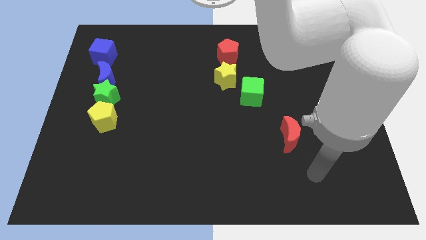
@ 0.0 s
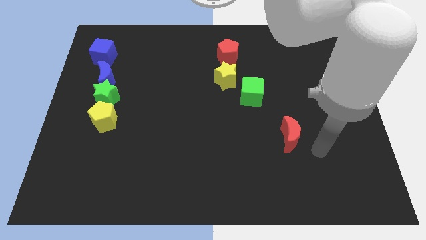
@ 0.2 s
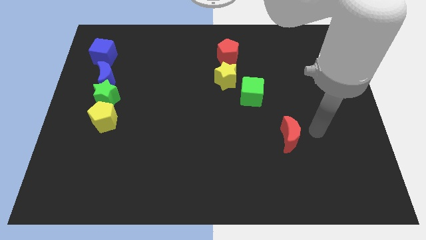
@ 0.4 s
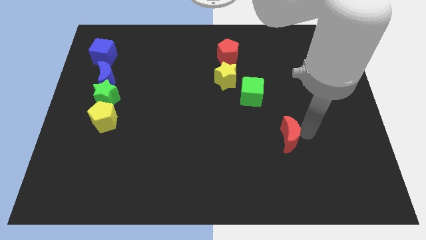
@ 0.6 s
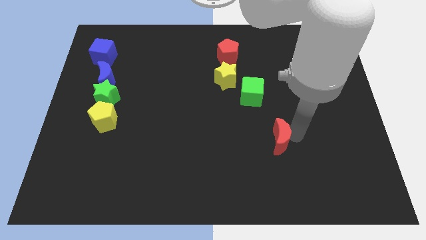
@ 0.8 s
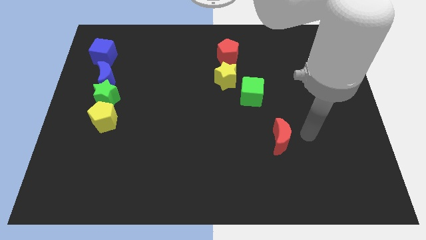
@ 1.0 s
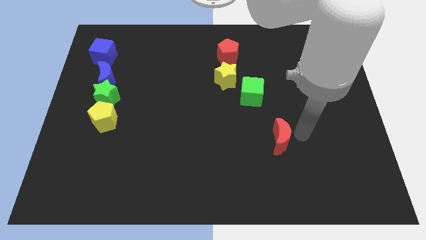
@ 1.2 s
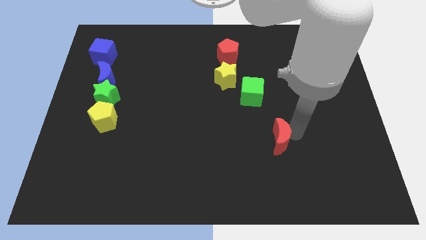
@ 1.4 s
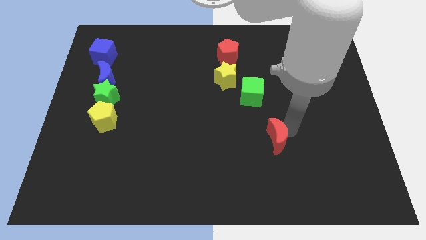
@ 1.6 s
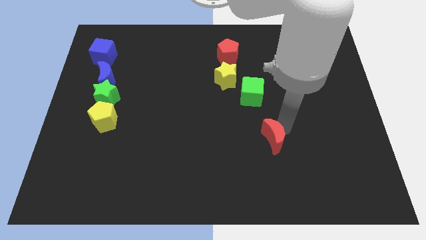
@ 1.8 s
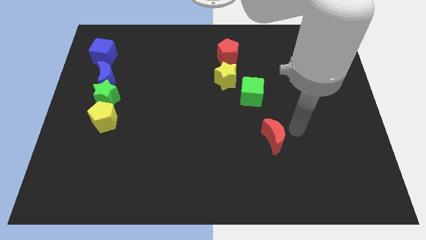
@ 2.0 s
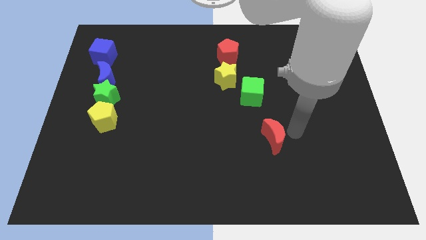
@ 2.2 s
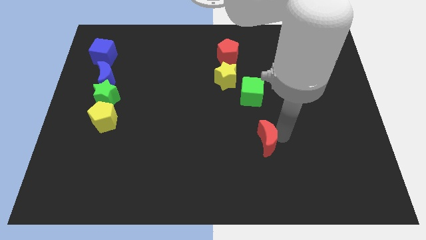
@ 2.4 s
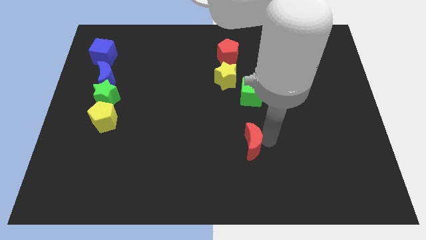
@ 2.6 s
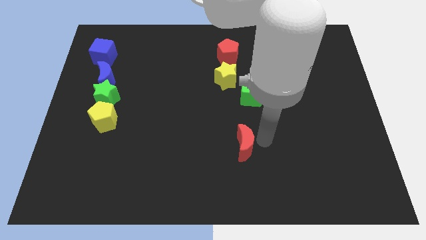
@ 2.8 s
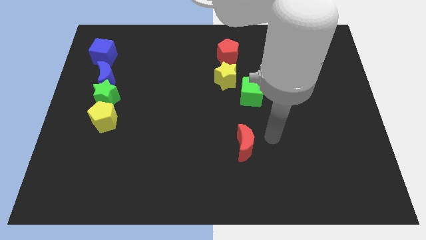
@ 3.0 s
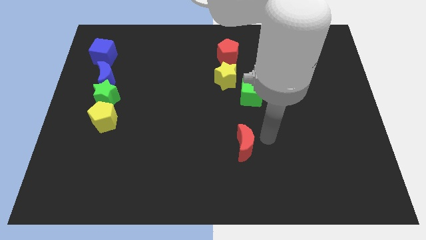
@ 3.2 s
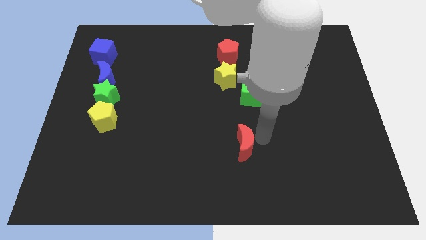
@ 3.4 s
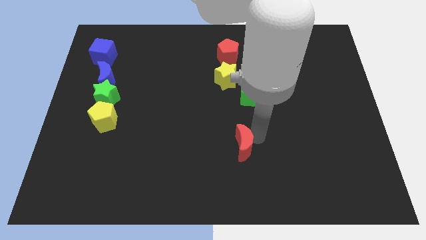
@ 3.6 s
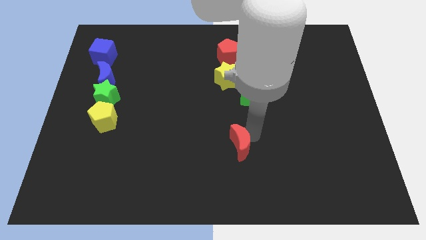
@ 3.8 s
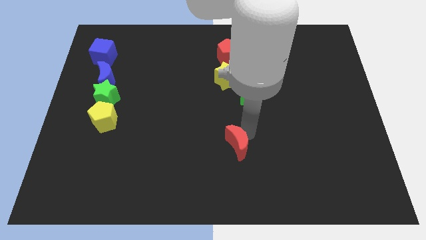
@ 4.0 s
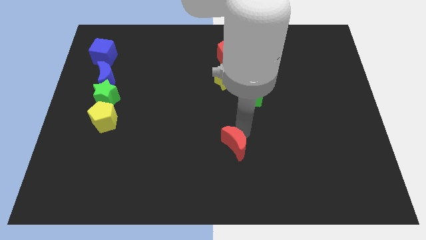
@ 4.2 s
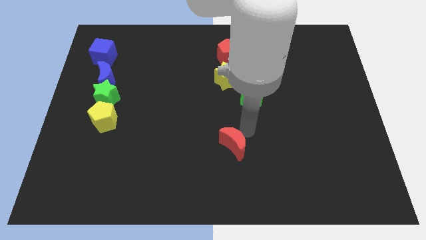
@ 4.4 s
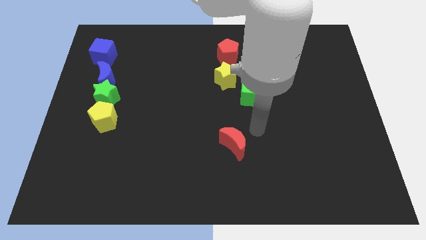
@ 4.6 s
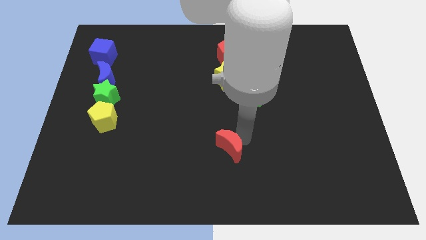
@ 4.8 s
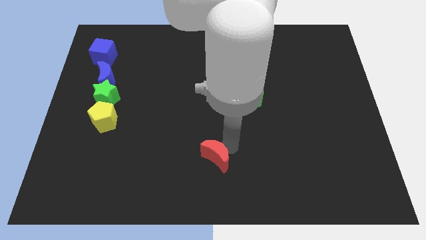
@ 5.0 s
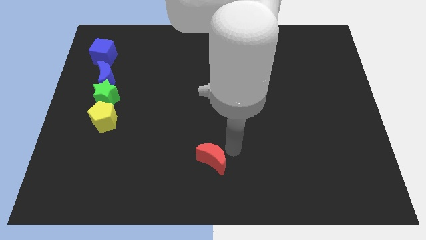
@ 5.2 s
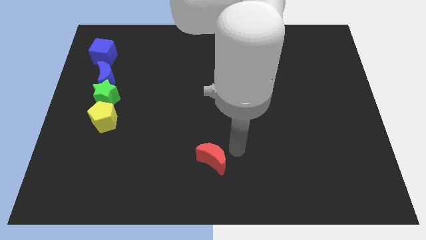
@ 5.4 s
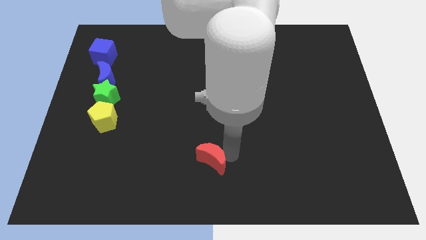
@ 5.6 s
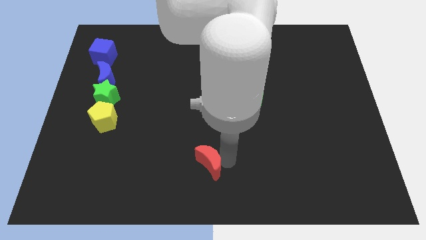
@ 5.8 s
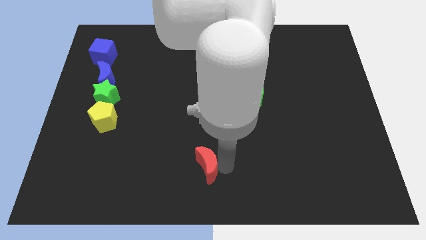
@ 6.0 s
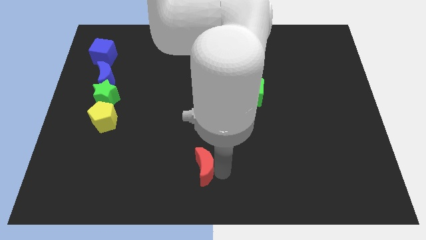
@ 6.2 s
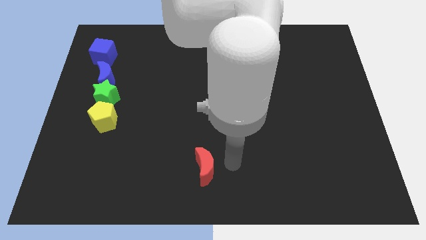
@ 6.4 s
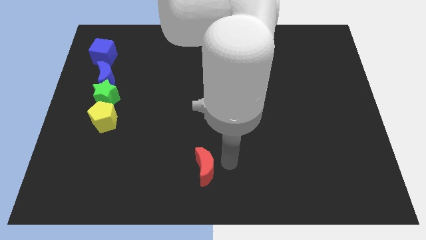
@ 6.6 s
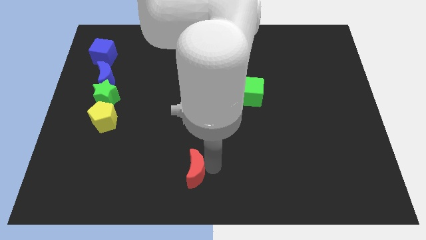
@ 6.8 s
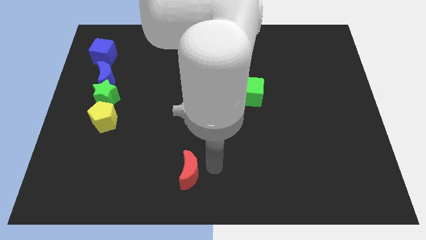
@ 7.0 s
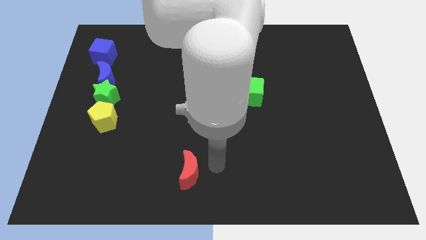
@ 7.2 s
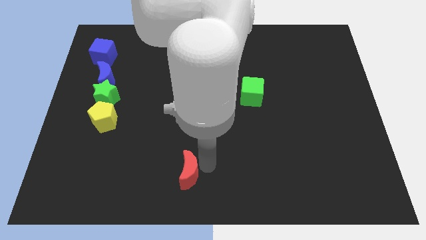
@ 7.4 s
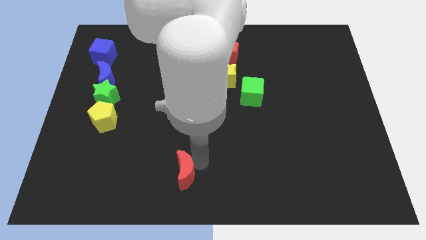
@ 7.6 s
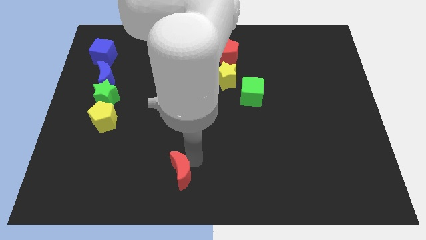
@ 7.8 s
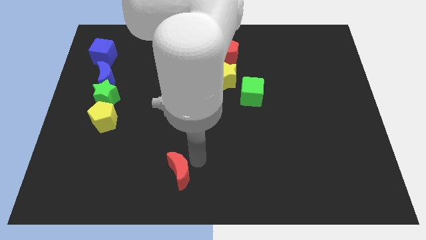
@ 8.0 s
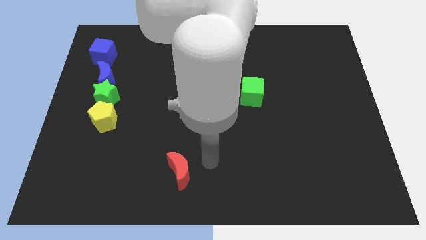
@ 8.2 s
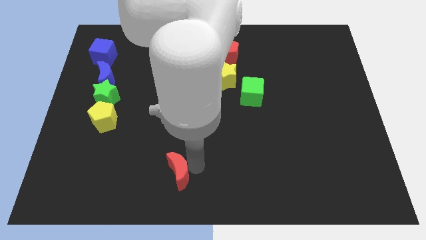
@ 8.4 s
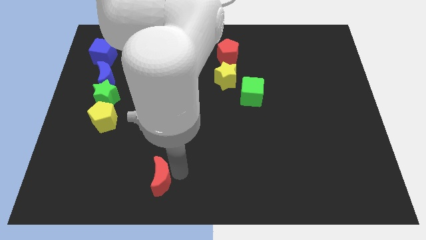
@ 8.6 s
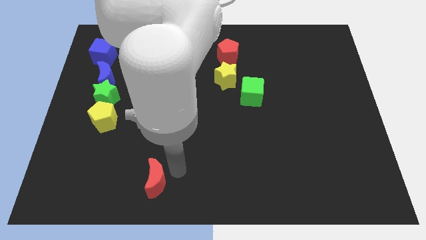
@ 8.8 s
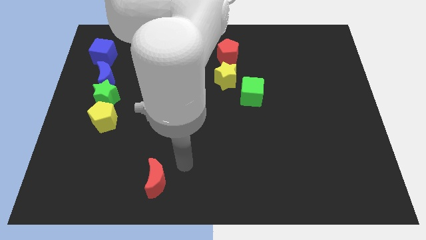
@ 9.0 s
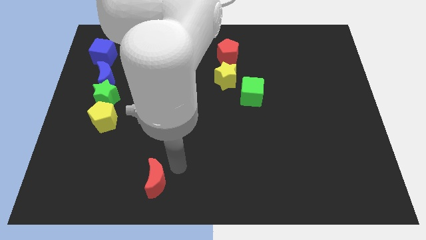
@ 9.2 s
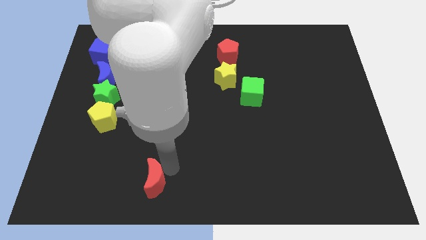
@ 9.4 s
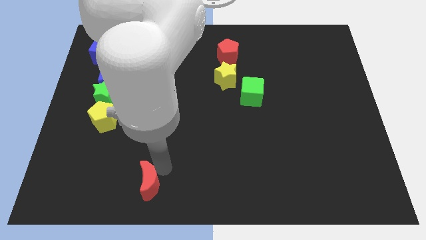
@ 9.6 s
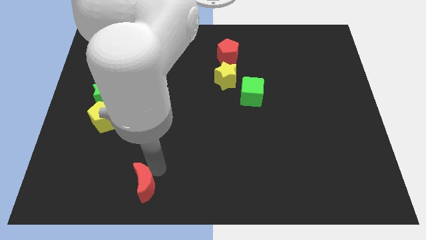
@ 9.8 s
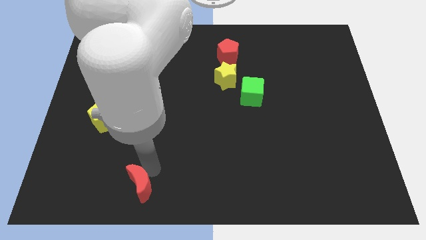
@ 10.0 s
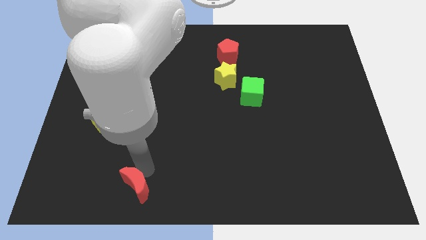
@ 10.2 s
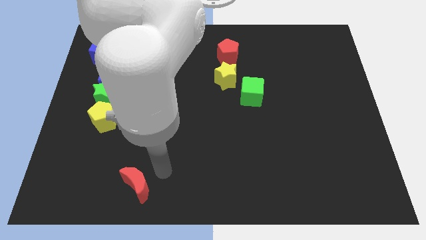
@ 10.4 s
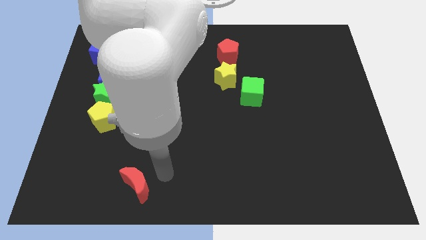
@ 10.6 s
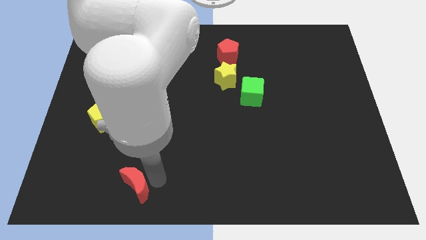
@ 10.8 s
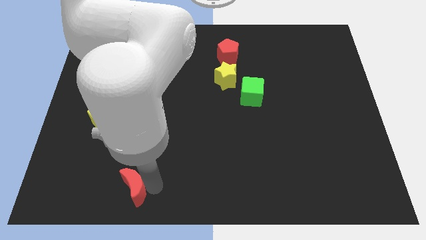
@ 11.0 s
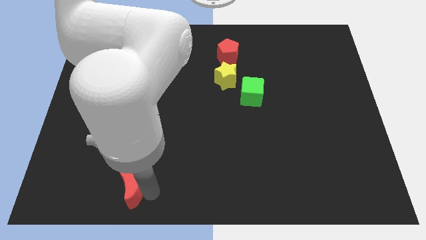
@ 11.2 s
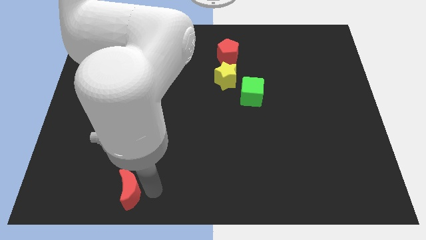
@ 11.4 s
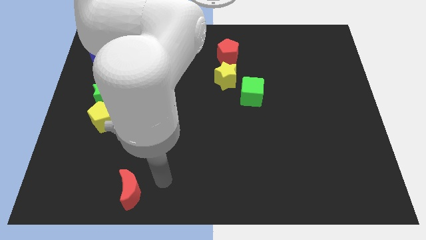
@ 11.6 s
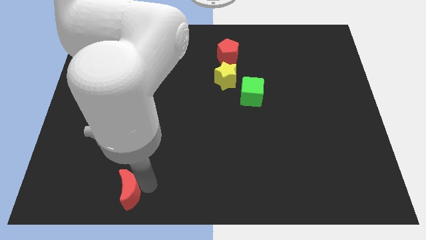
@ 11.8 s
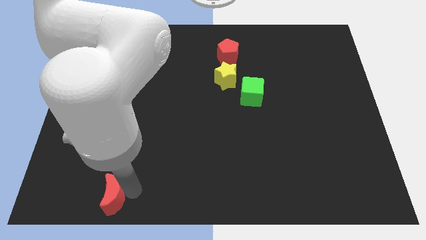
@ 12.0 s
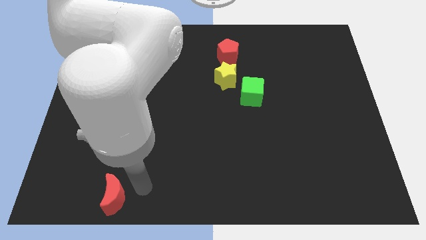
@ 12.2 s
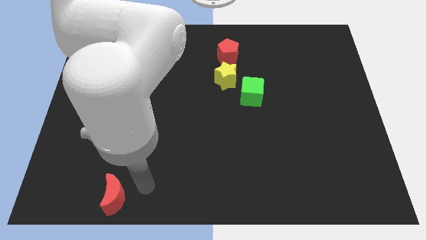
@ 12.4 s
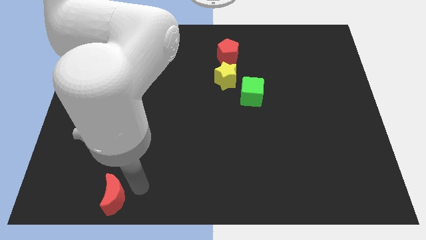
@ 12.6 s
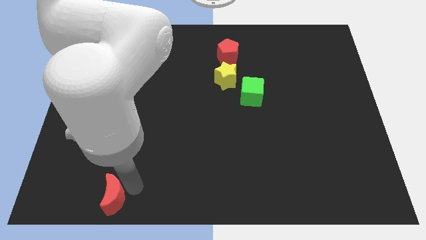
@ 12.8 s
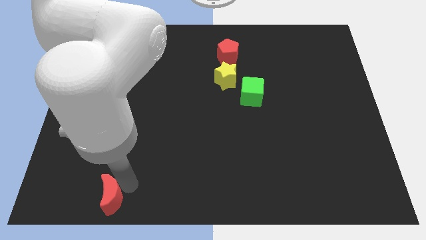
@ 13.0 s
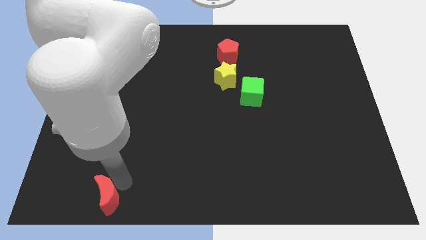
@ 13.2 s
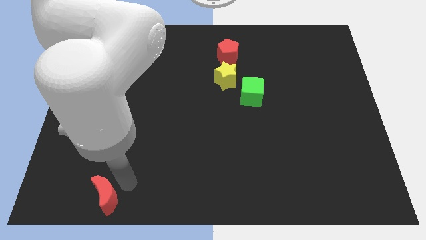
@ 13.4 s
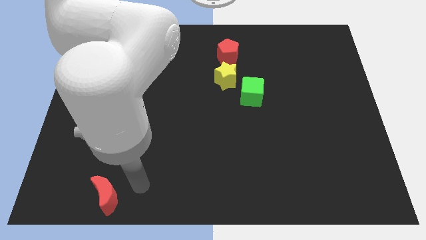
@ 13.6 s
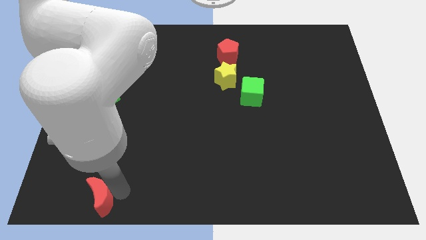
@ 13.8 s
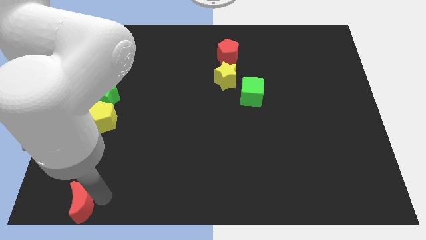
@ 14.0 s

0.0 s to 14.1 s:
move the red moon to the bottom left

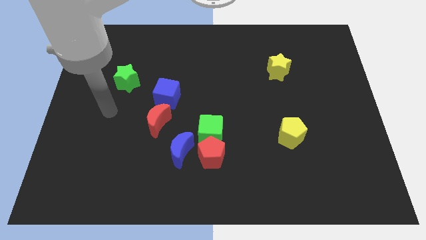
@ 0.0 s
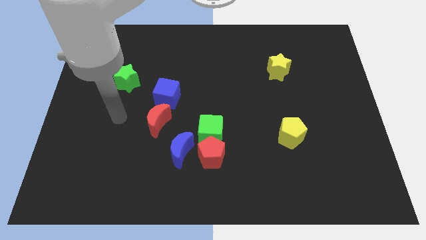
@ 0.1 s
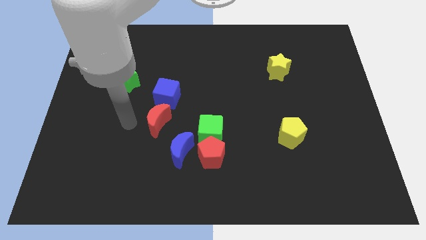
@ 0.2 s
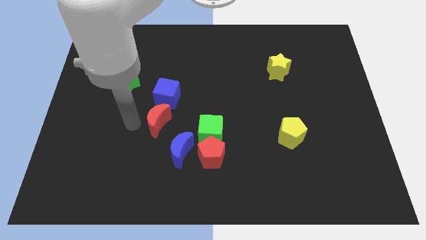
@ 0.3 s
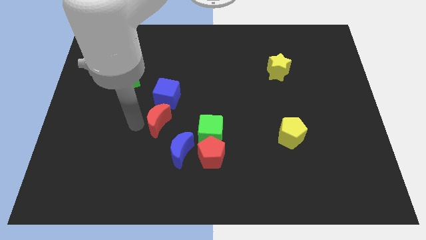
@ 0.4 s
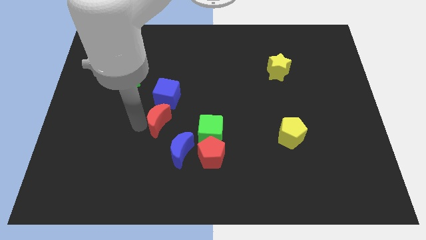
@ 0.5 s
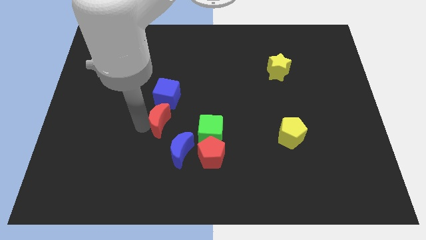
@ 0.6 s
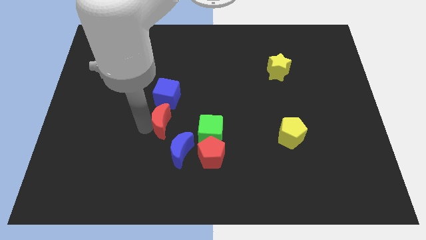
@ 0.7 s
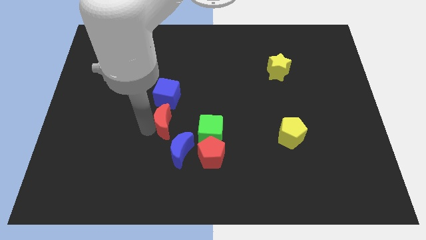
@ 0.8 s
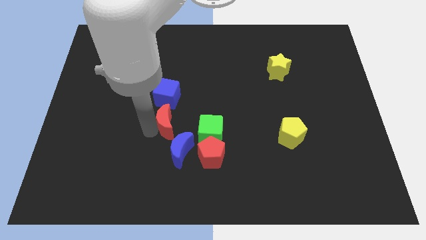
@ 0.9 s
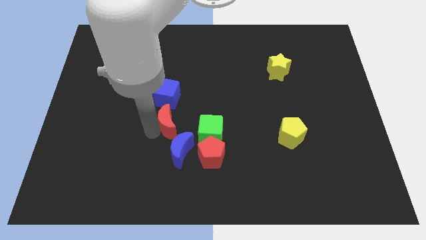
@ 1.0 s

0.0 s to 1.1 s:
slide the red moon to the middle
